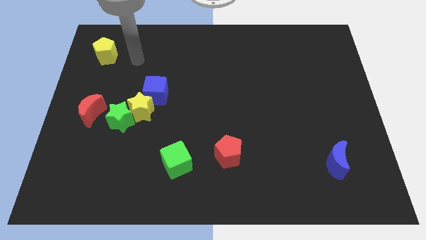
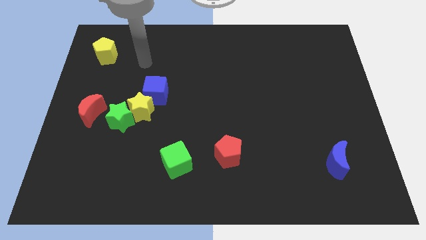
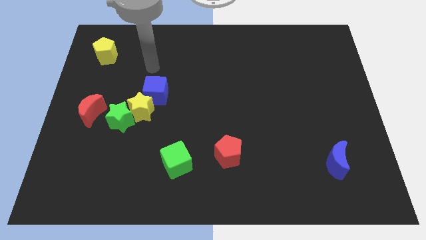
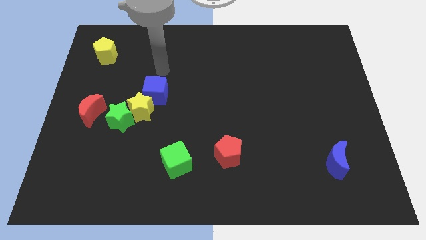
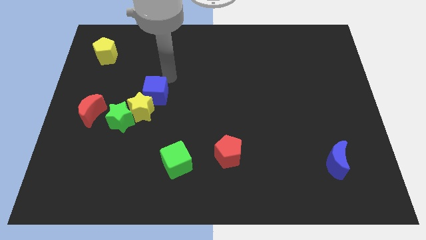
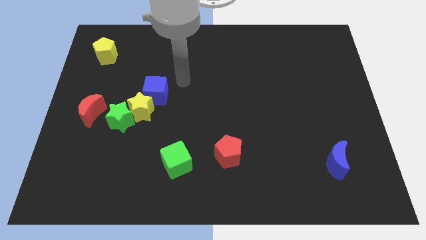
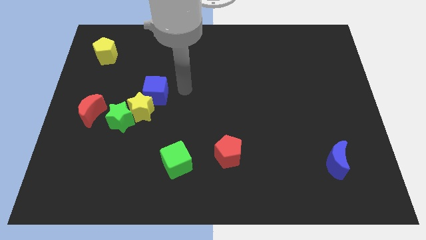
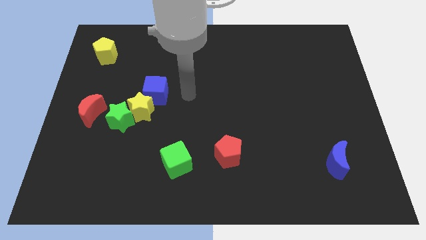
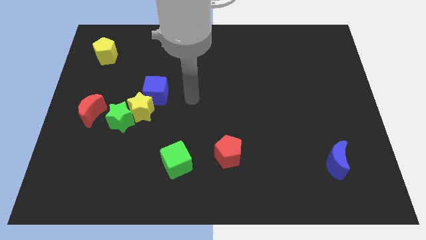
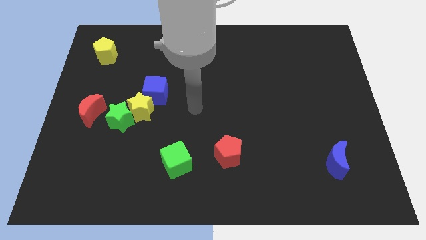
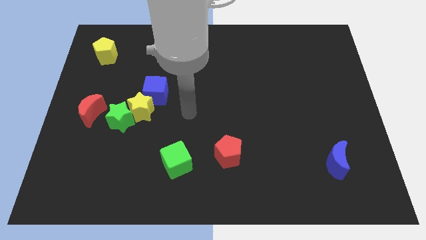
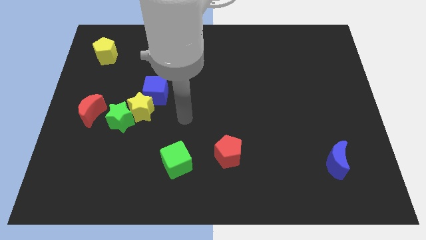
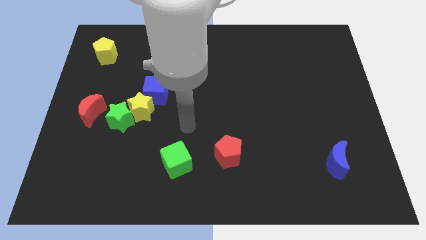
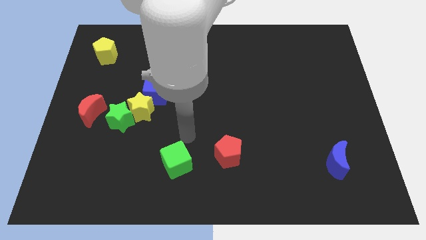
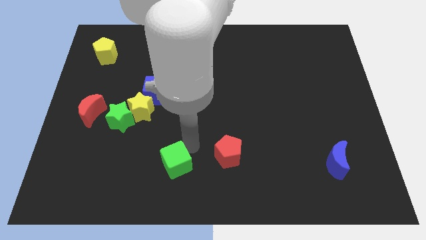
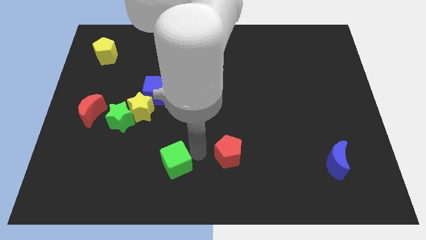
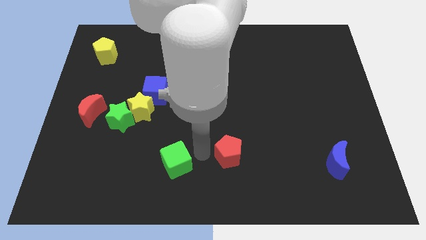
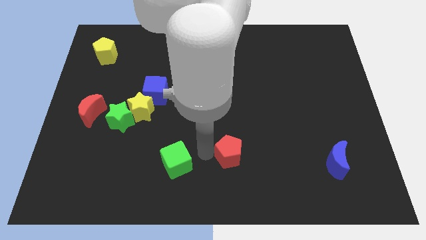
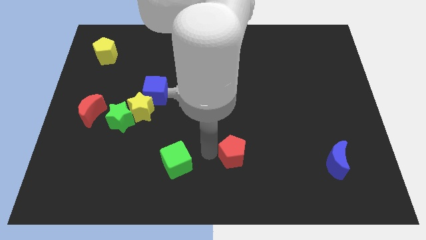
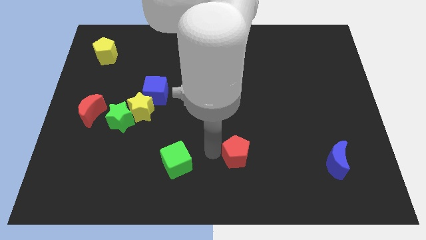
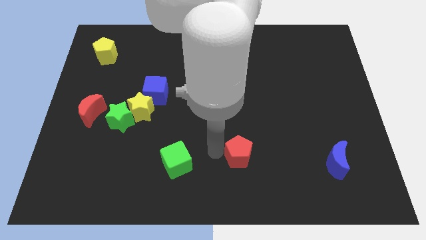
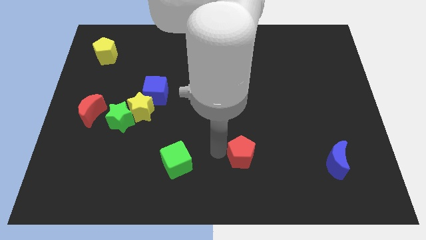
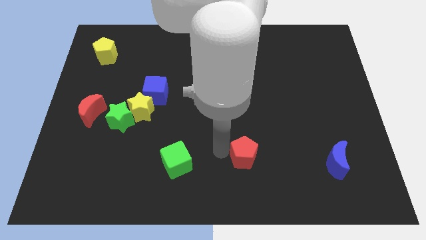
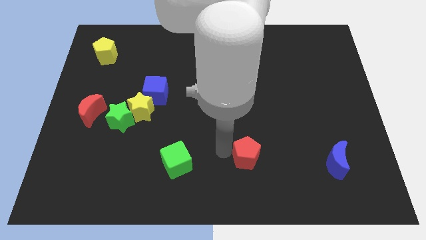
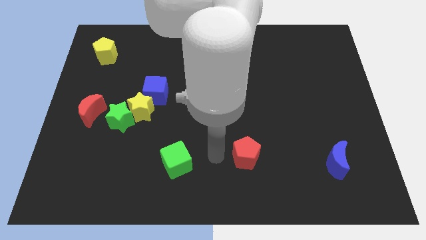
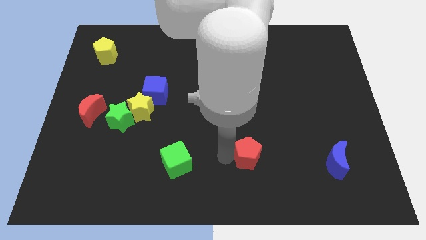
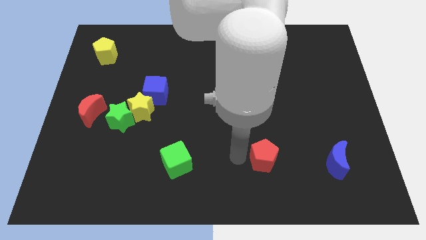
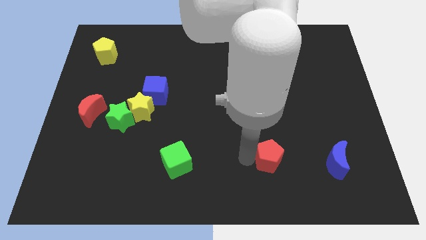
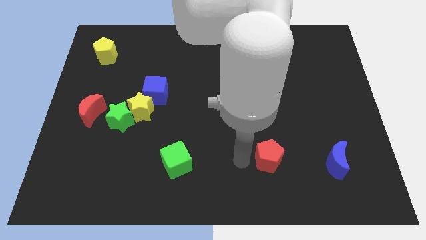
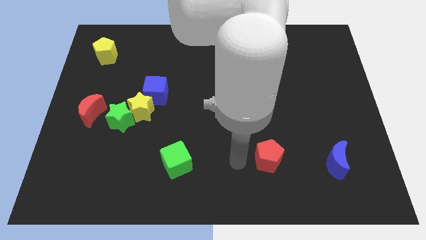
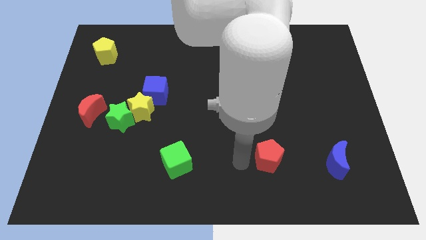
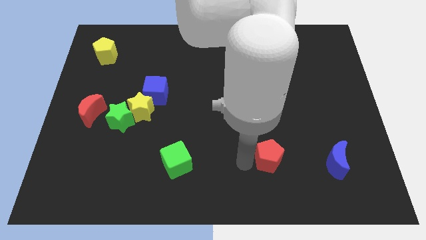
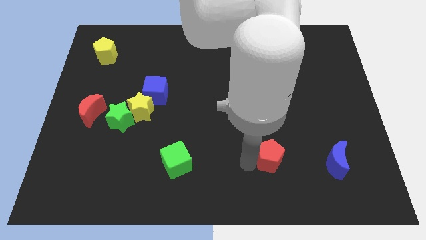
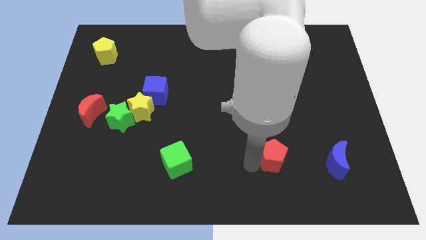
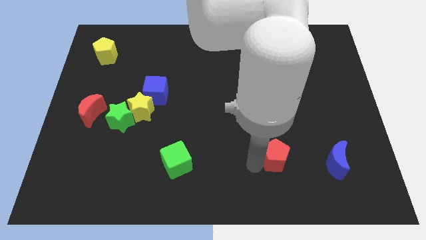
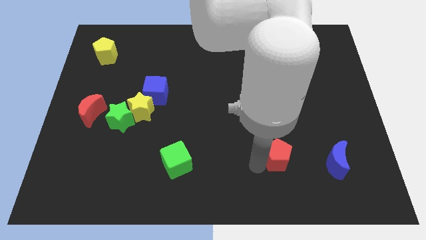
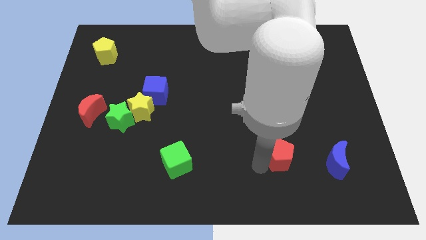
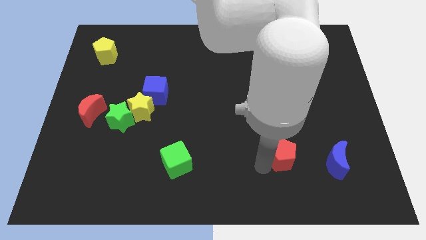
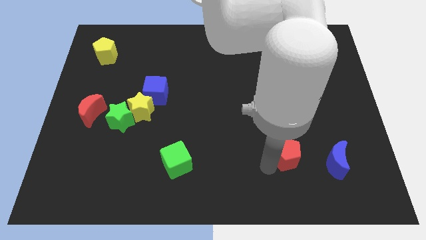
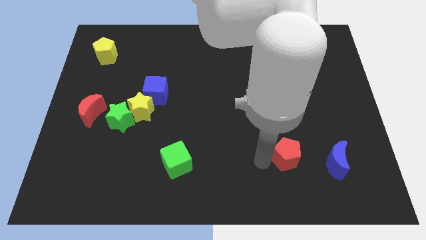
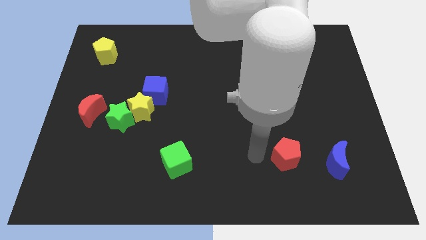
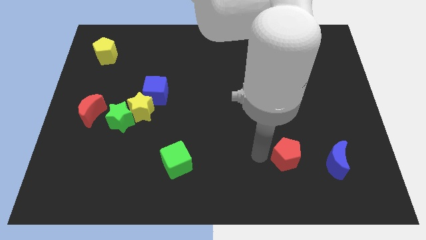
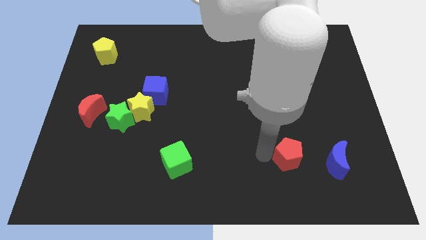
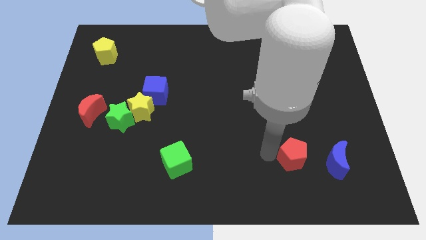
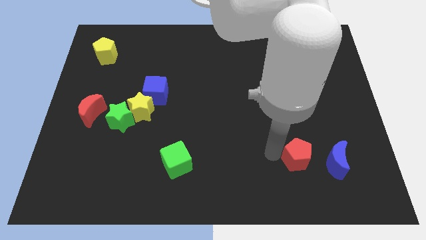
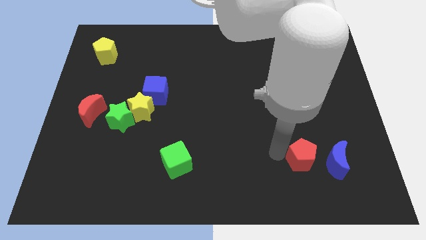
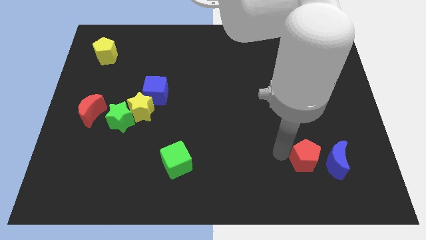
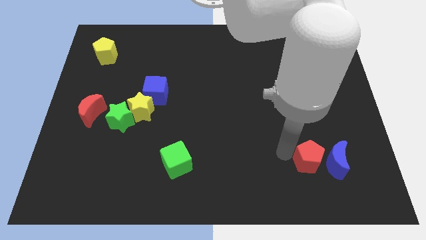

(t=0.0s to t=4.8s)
push the red pentagon close to the blue moon

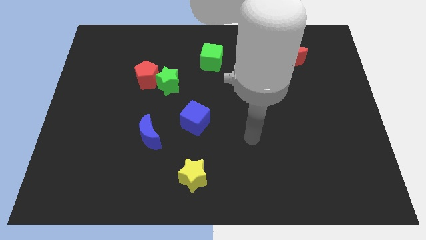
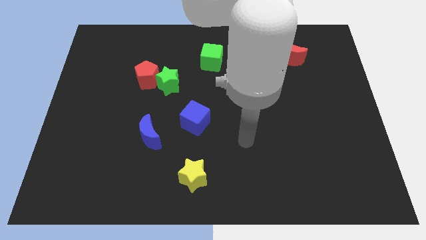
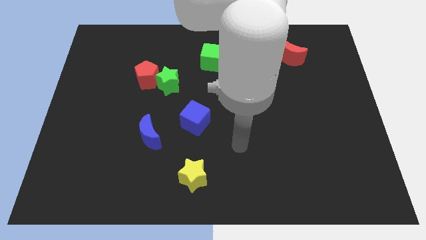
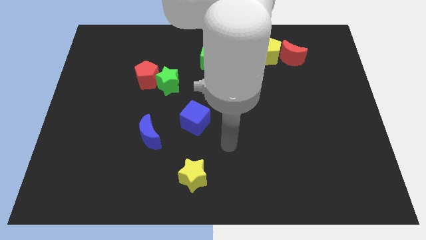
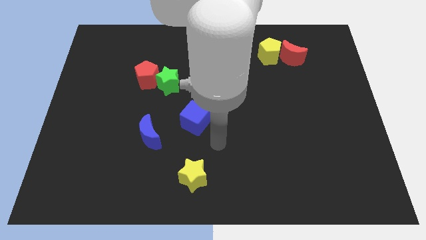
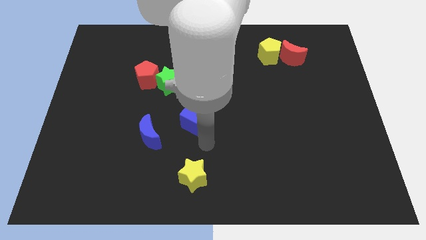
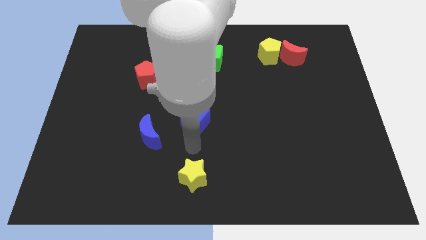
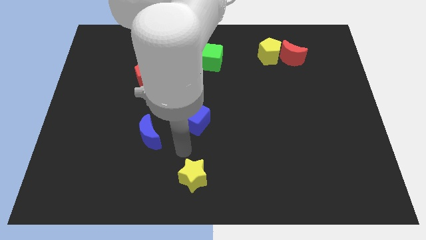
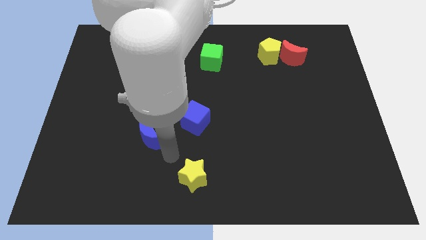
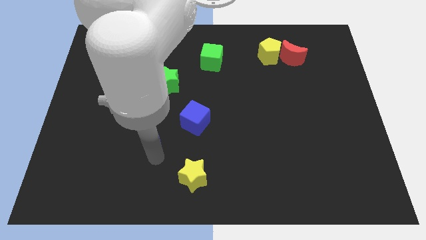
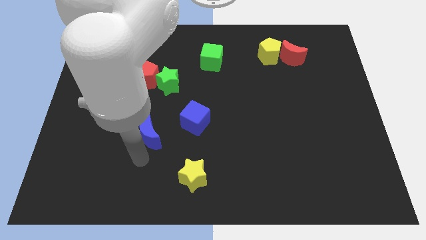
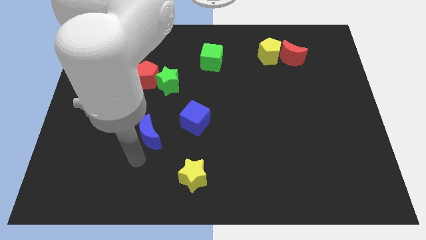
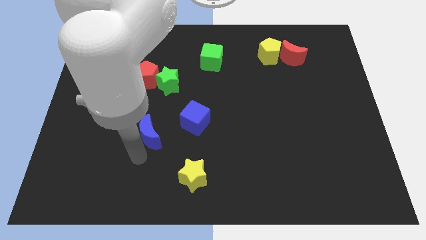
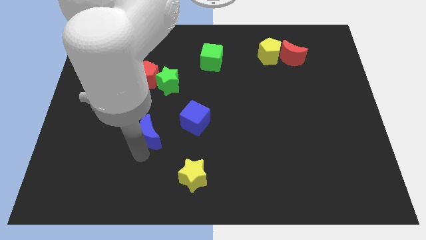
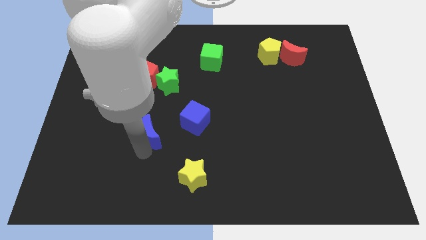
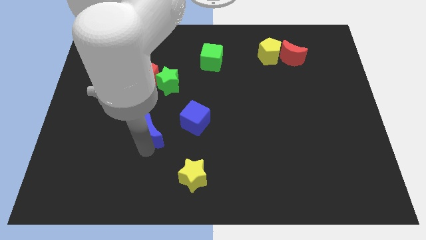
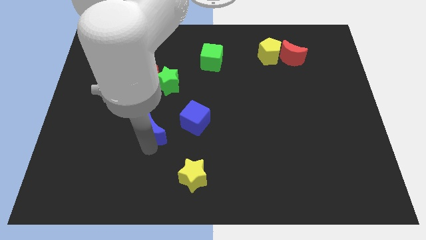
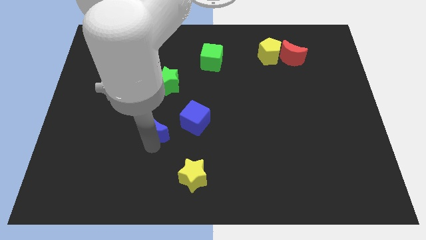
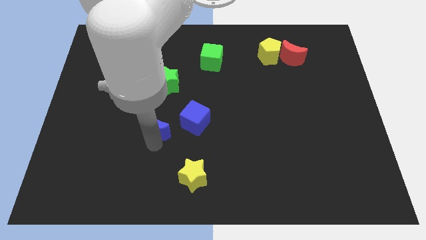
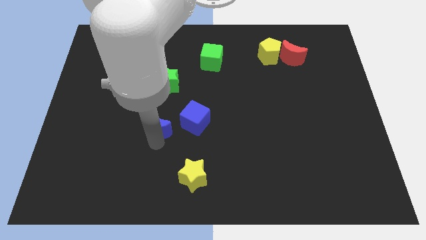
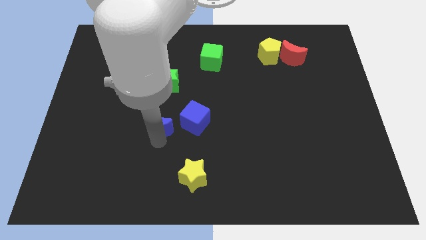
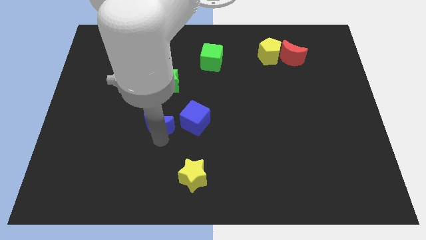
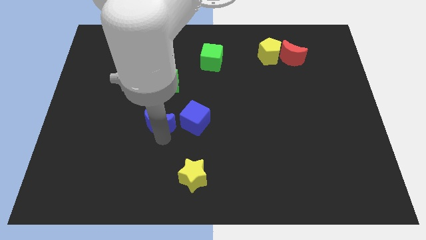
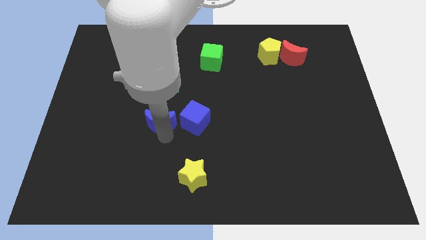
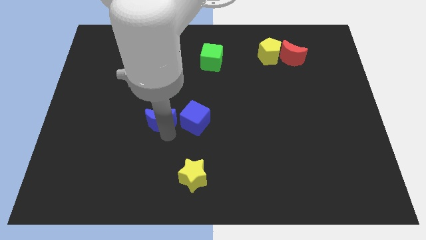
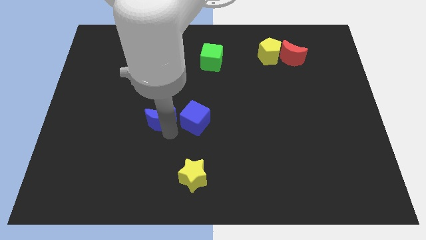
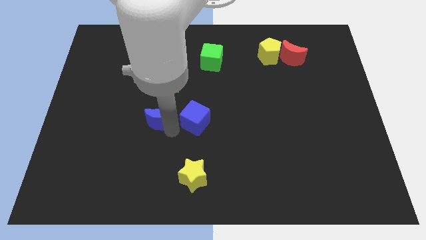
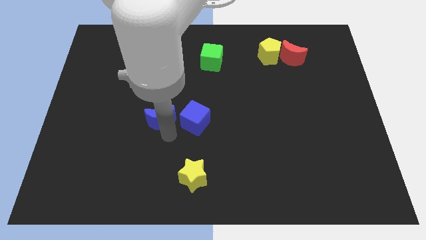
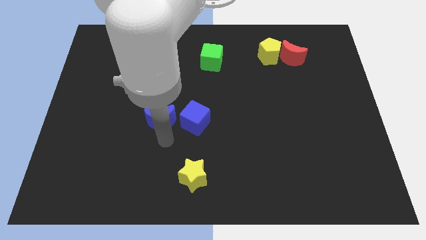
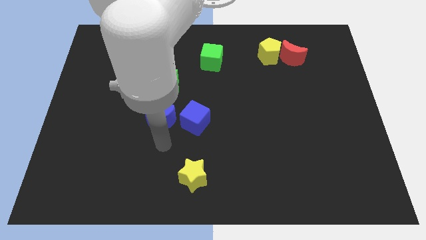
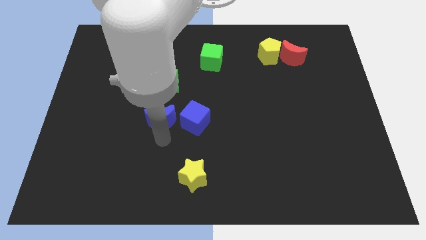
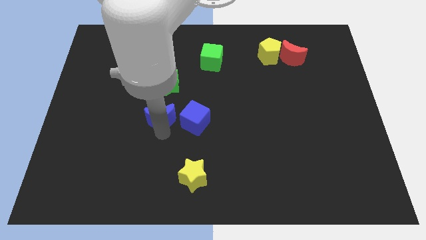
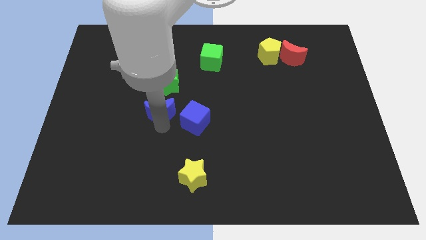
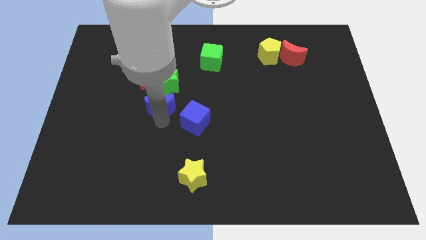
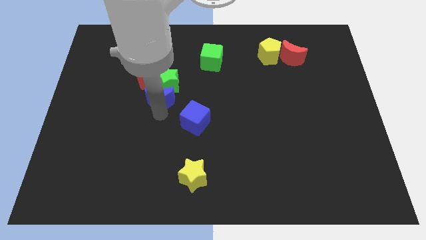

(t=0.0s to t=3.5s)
put the blue moon towards the green star
